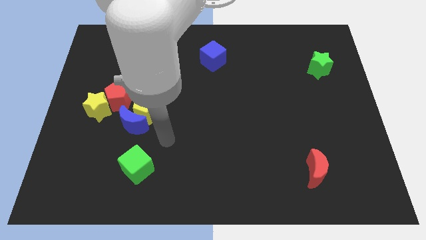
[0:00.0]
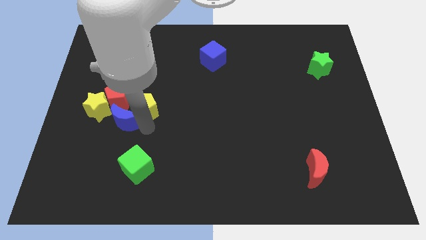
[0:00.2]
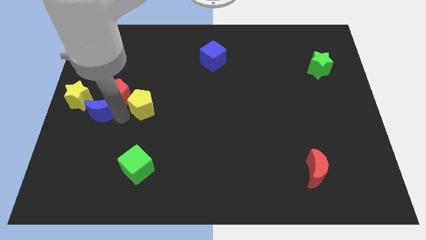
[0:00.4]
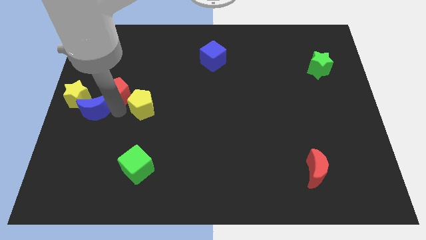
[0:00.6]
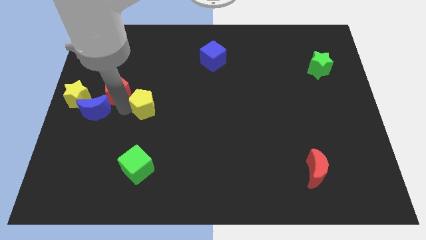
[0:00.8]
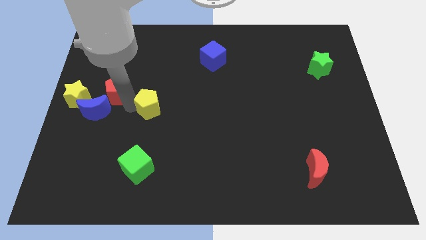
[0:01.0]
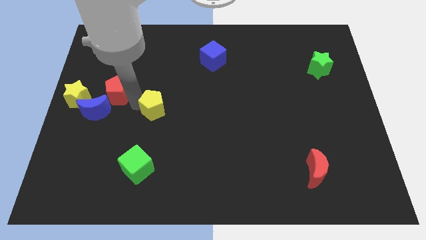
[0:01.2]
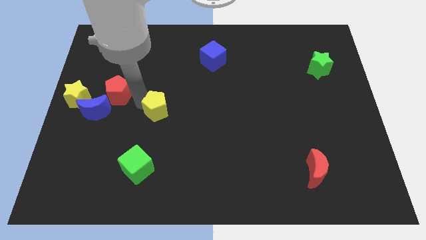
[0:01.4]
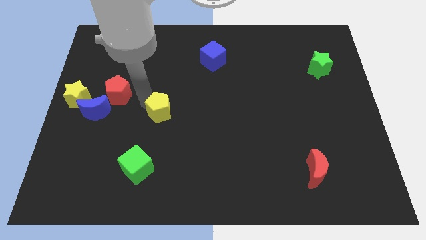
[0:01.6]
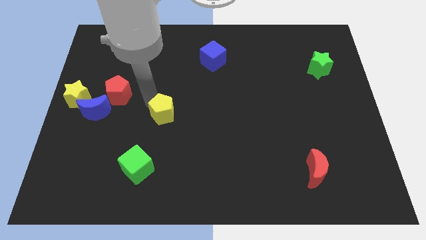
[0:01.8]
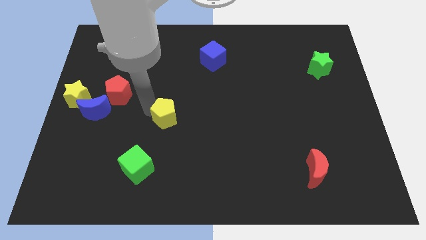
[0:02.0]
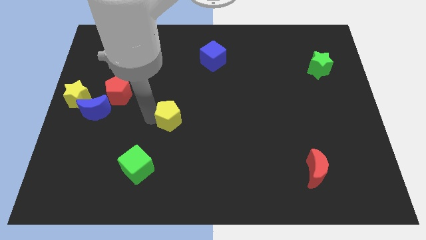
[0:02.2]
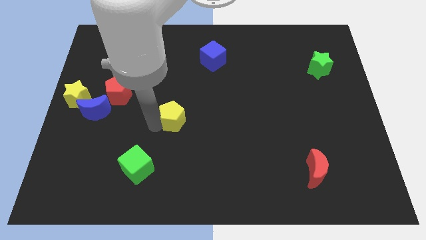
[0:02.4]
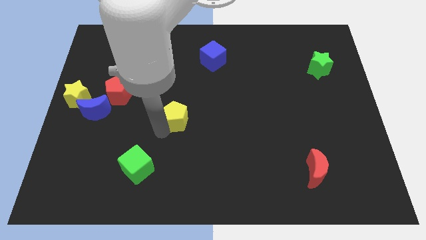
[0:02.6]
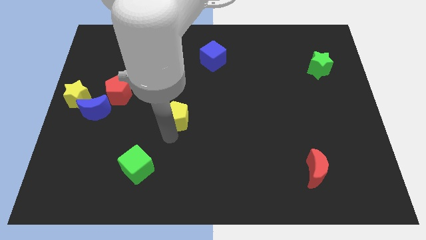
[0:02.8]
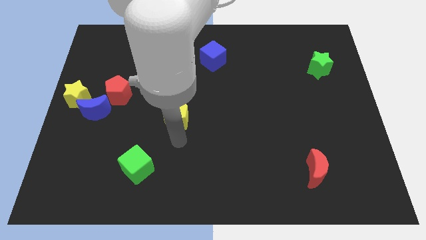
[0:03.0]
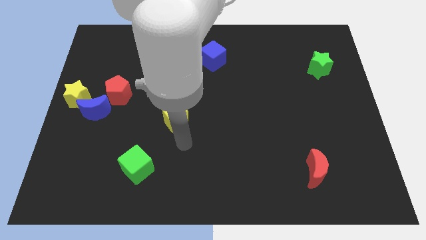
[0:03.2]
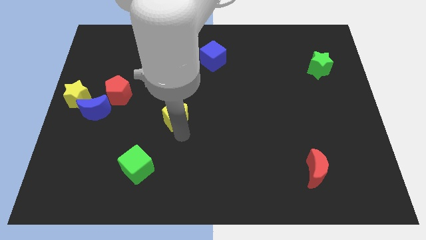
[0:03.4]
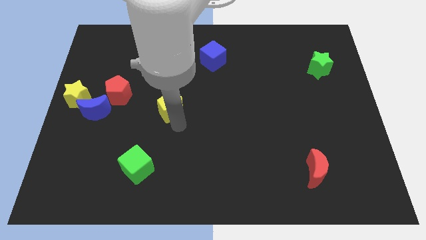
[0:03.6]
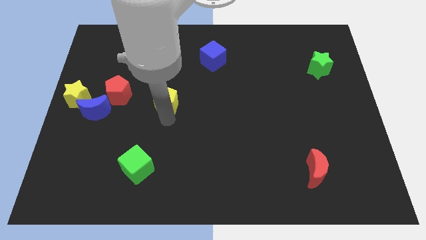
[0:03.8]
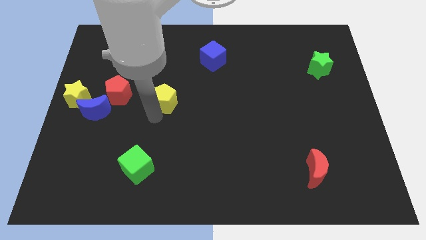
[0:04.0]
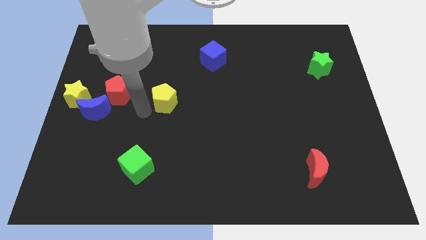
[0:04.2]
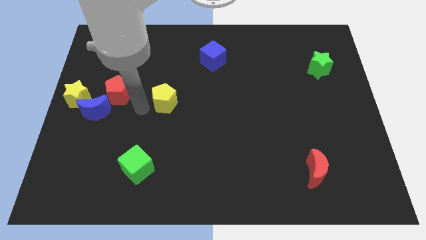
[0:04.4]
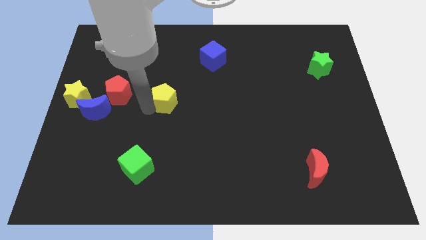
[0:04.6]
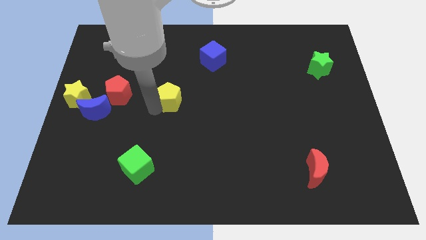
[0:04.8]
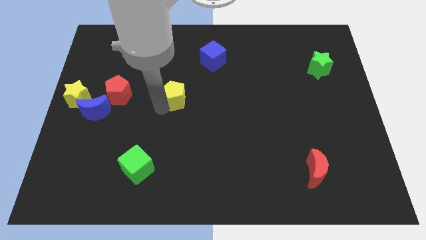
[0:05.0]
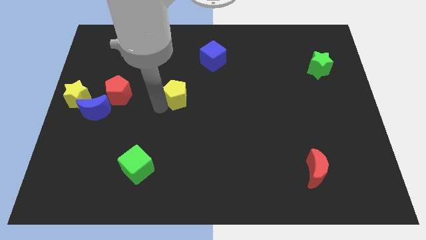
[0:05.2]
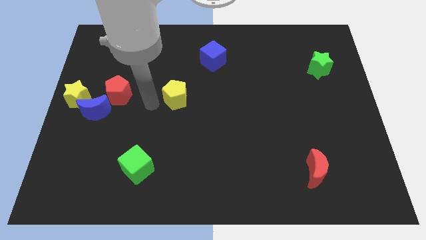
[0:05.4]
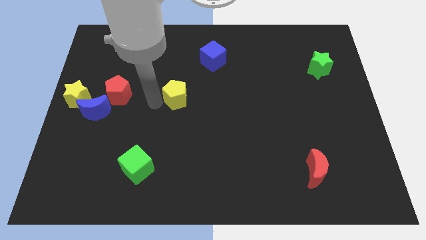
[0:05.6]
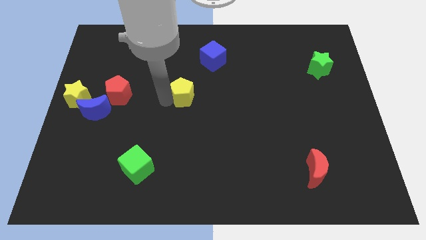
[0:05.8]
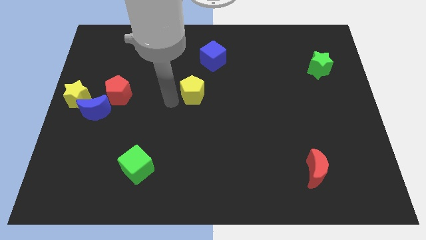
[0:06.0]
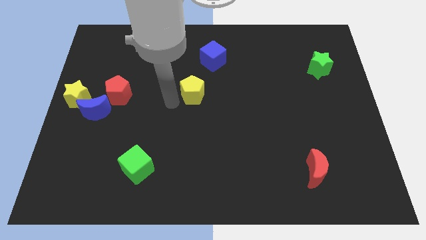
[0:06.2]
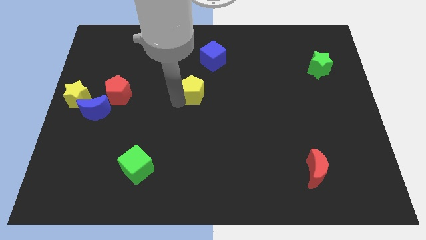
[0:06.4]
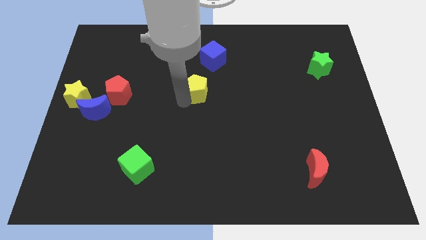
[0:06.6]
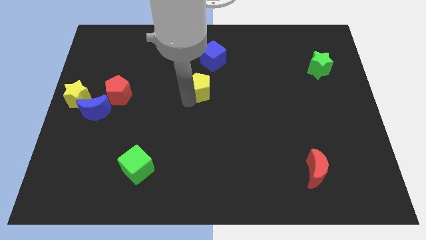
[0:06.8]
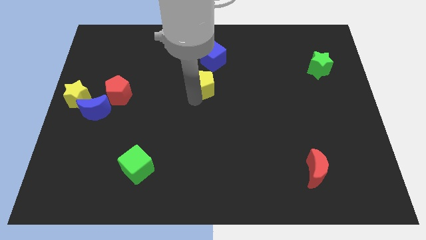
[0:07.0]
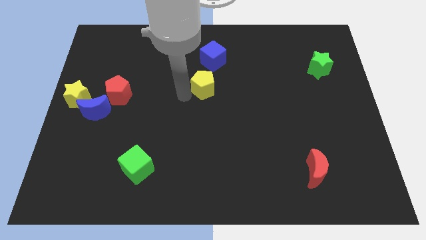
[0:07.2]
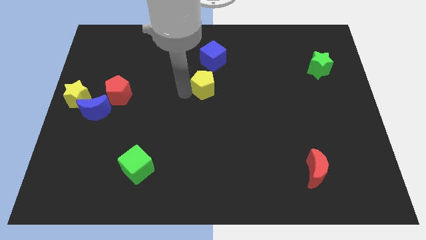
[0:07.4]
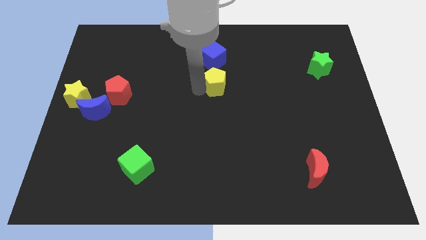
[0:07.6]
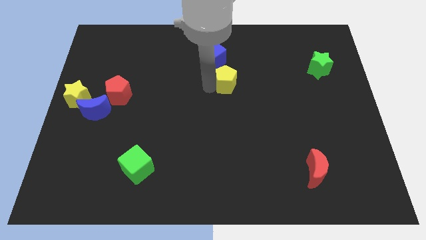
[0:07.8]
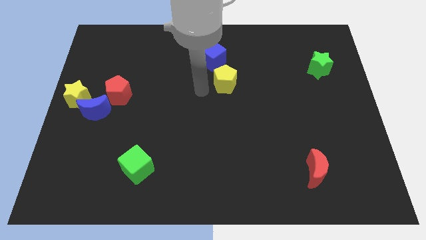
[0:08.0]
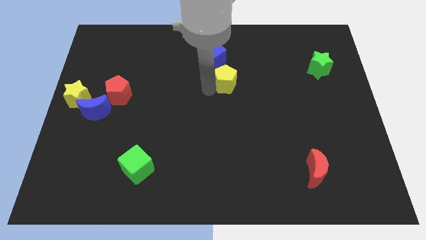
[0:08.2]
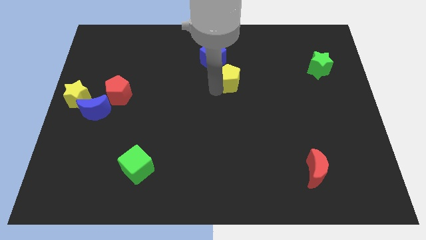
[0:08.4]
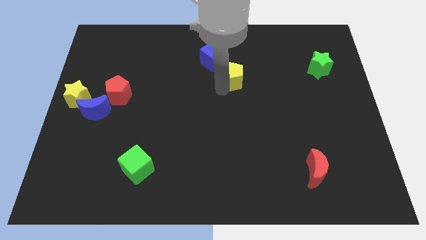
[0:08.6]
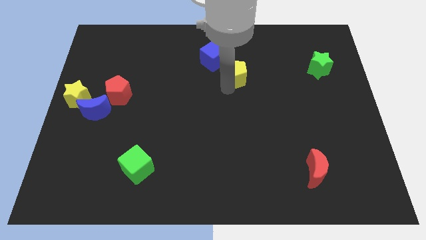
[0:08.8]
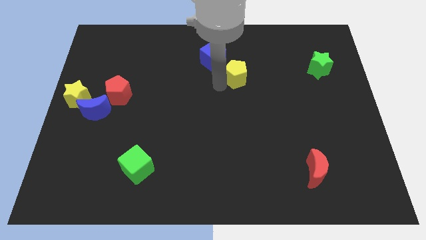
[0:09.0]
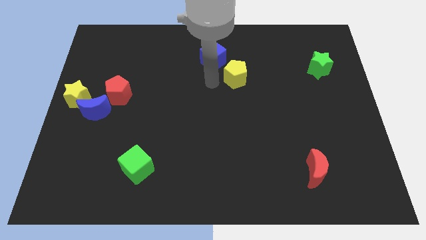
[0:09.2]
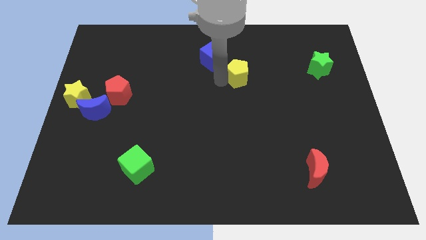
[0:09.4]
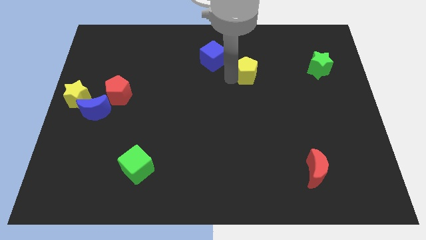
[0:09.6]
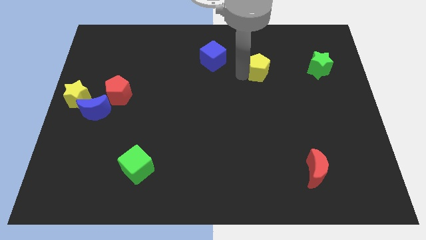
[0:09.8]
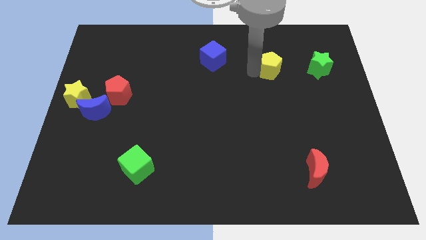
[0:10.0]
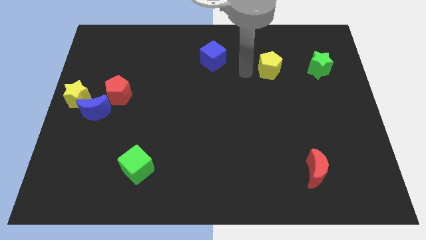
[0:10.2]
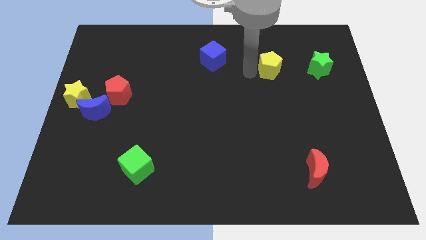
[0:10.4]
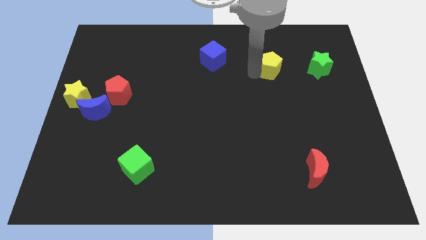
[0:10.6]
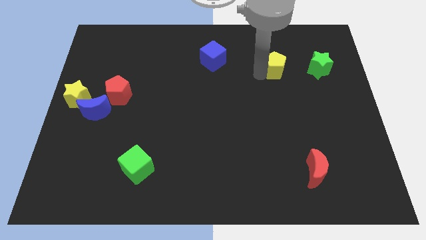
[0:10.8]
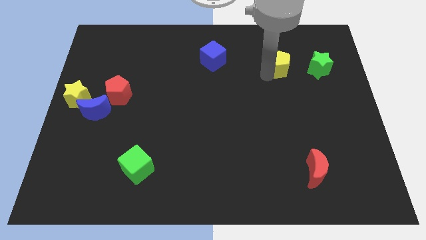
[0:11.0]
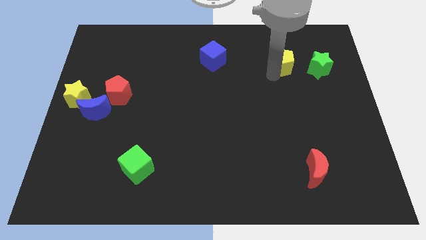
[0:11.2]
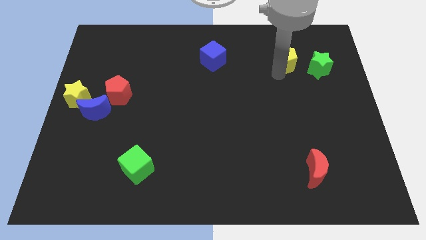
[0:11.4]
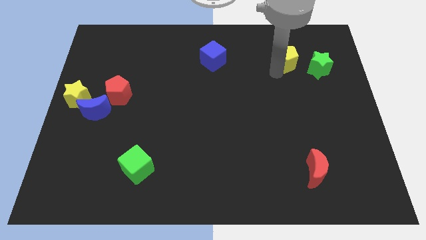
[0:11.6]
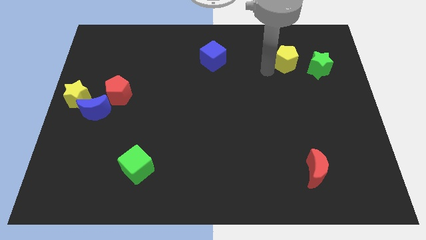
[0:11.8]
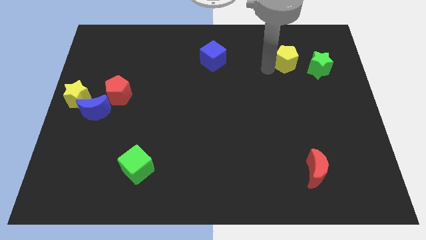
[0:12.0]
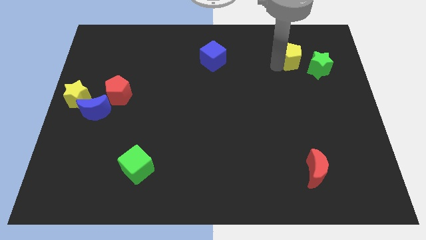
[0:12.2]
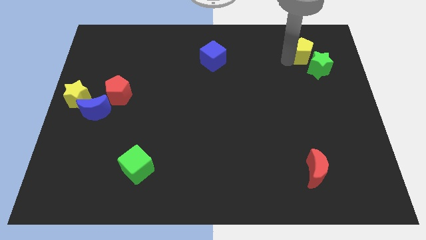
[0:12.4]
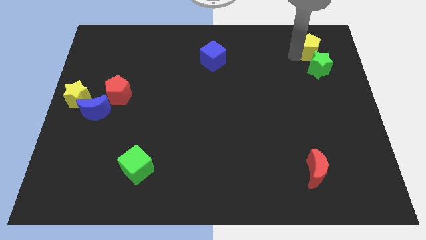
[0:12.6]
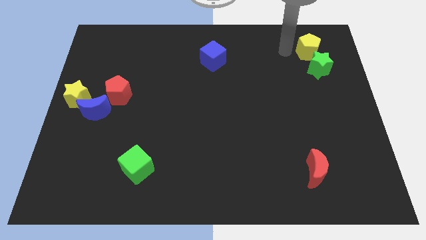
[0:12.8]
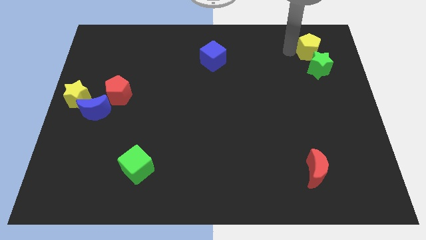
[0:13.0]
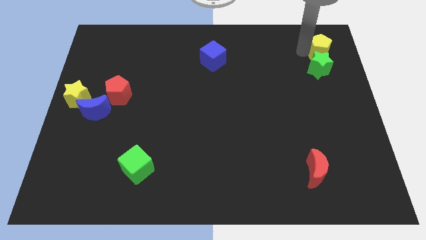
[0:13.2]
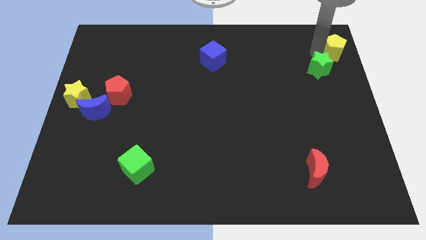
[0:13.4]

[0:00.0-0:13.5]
push the yellow pentagon to the top right corner

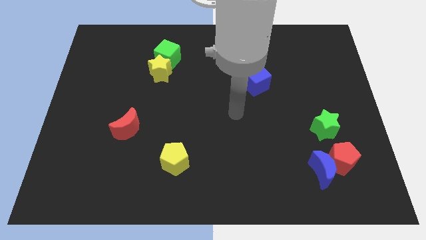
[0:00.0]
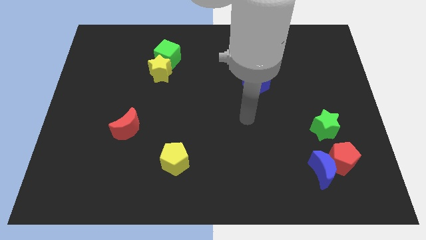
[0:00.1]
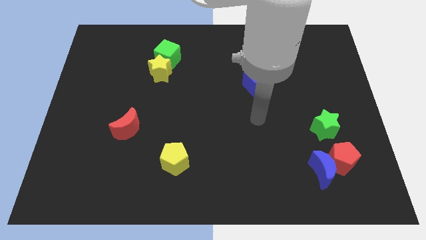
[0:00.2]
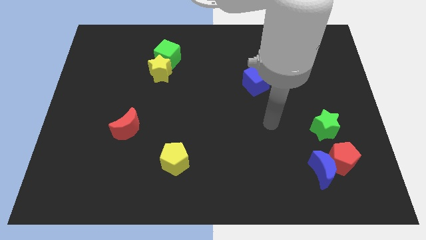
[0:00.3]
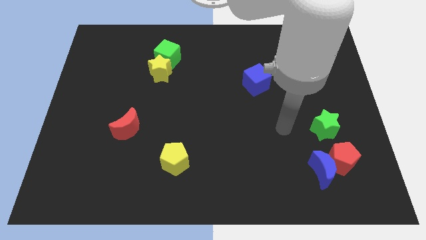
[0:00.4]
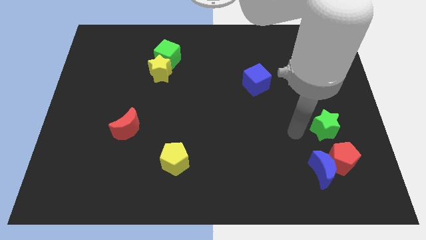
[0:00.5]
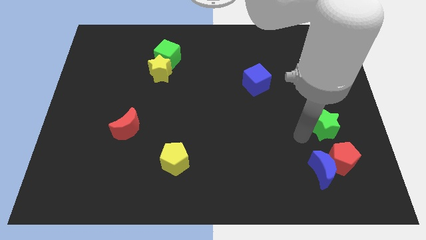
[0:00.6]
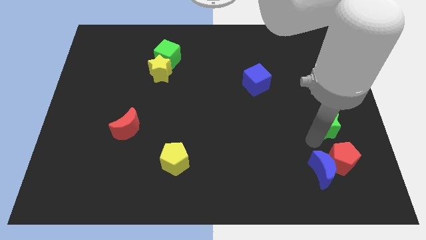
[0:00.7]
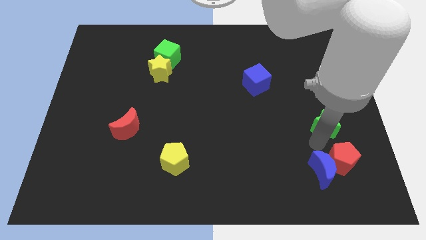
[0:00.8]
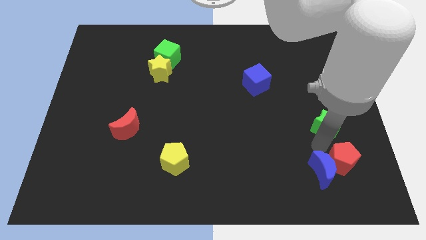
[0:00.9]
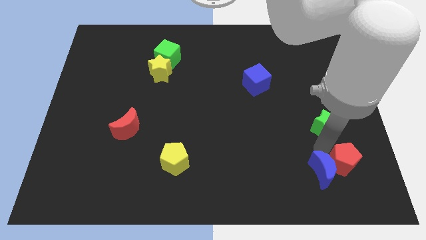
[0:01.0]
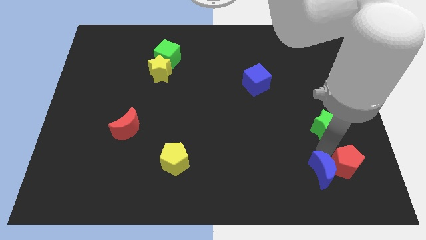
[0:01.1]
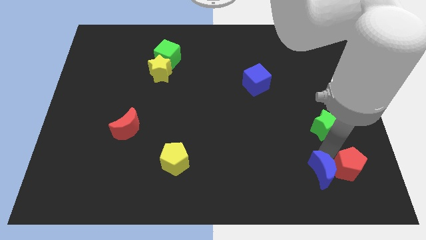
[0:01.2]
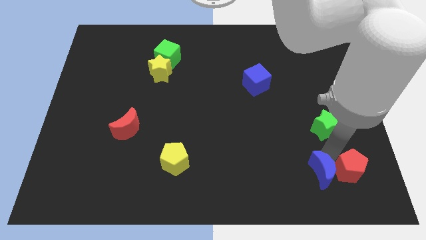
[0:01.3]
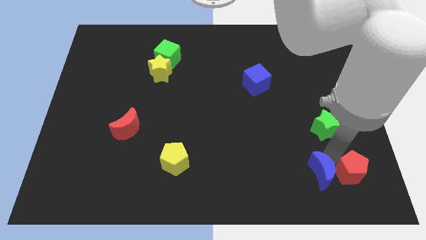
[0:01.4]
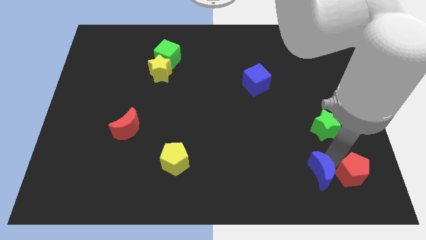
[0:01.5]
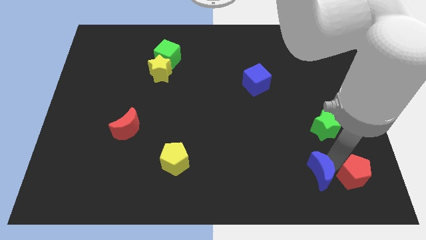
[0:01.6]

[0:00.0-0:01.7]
move the red pentagon to the bottom right corner
